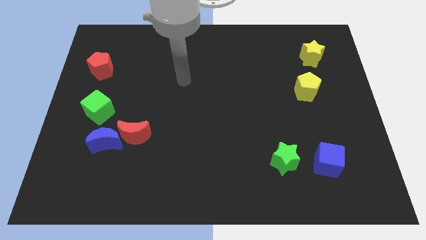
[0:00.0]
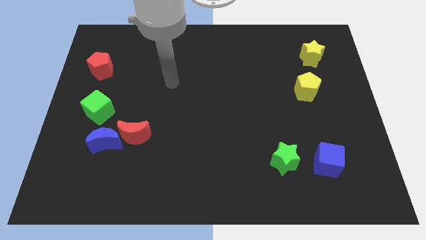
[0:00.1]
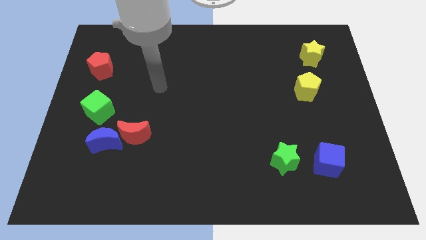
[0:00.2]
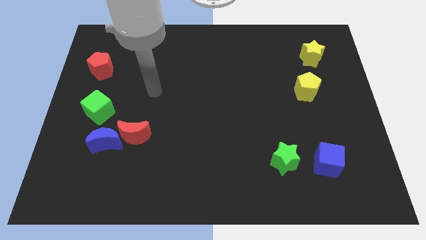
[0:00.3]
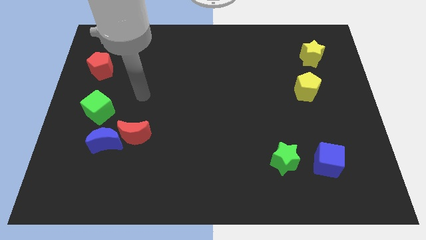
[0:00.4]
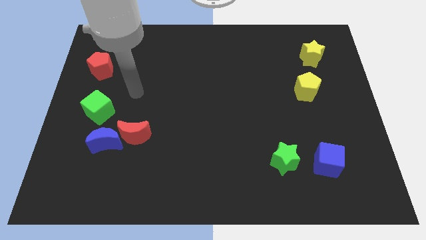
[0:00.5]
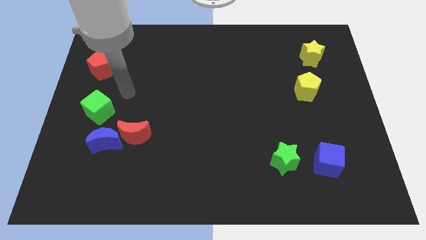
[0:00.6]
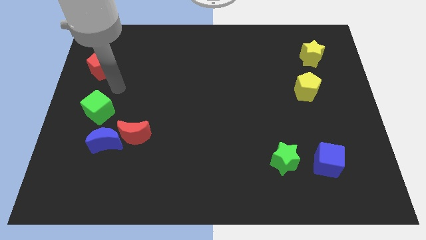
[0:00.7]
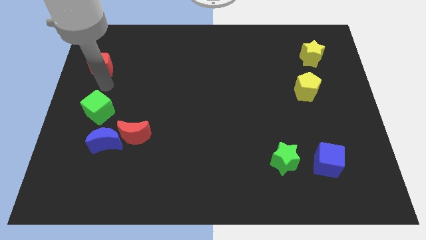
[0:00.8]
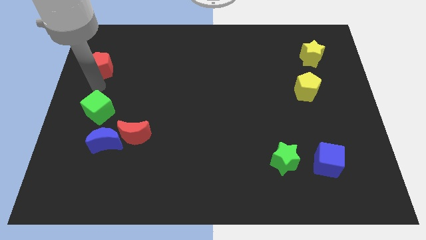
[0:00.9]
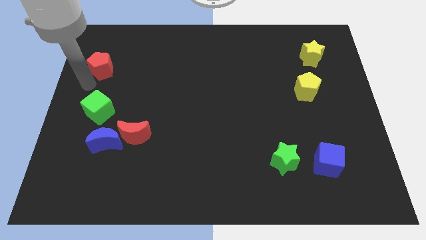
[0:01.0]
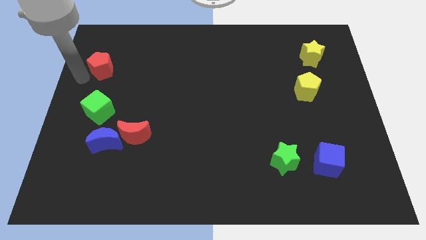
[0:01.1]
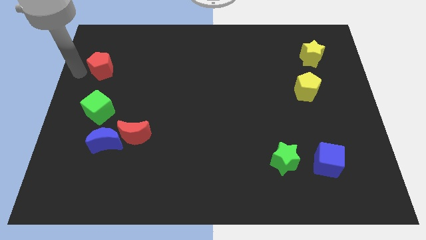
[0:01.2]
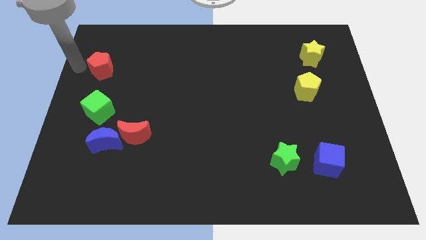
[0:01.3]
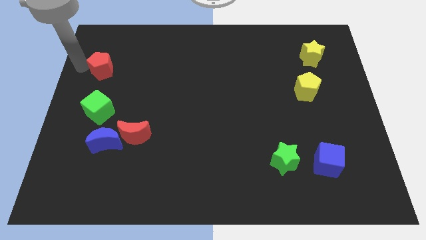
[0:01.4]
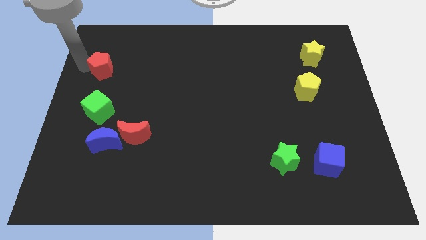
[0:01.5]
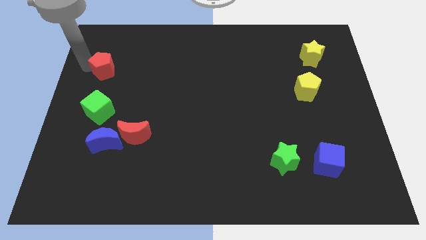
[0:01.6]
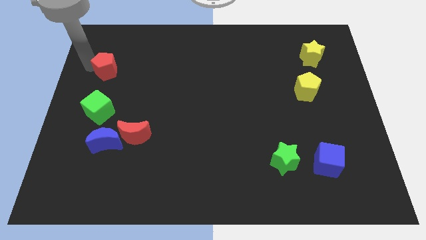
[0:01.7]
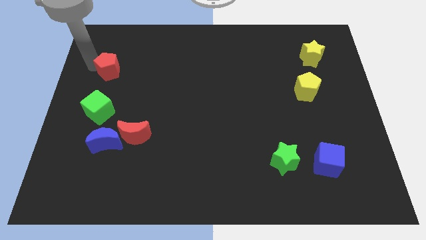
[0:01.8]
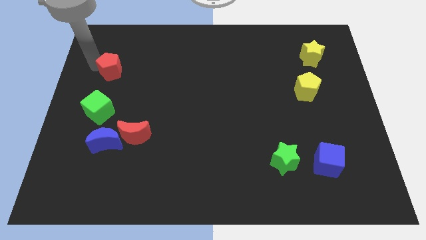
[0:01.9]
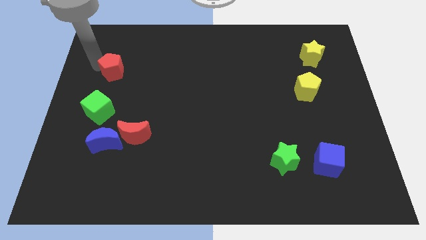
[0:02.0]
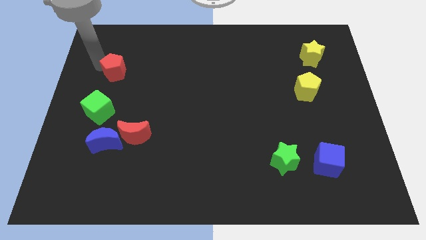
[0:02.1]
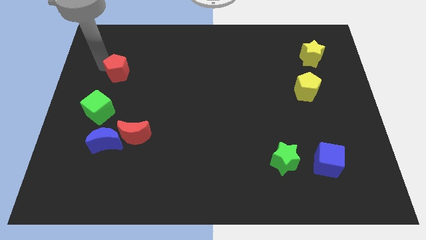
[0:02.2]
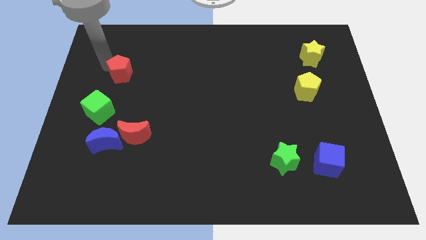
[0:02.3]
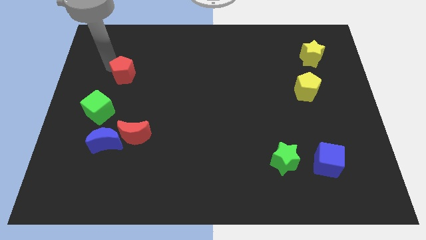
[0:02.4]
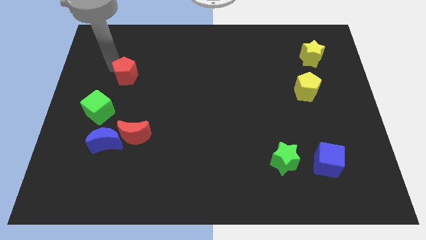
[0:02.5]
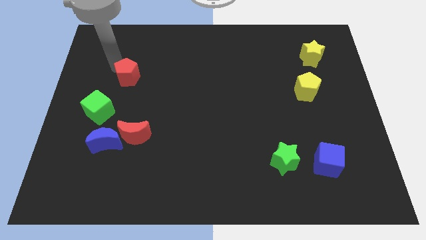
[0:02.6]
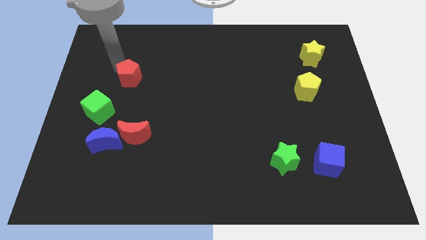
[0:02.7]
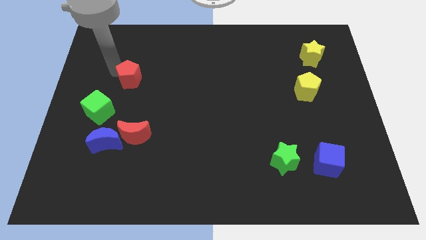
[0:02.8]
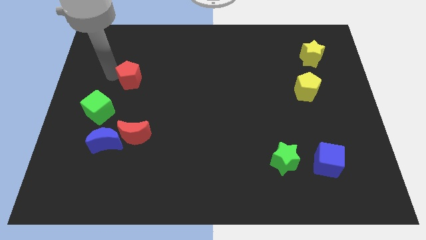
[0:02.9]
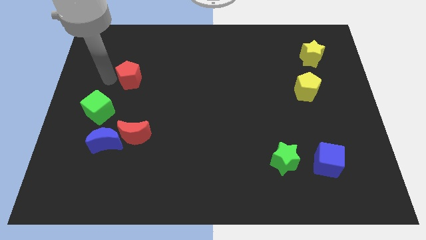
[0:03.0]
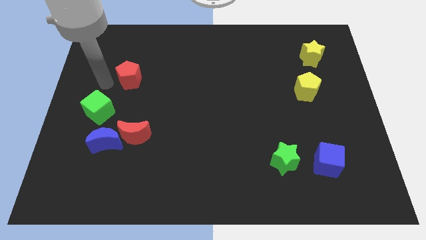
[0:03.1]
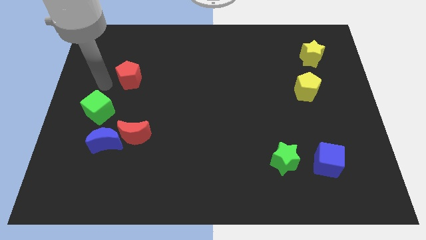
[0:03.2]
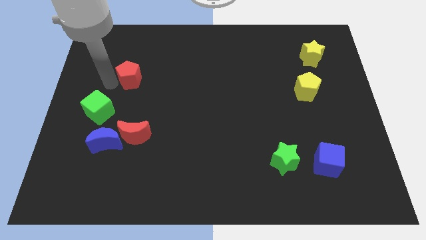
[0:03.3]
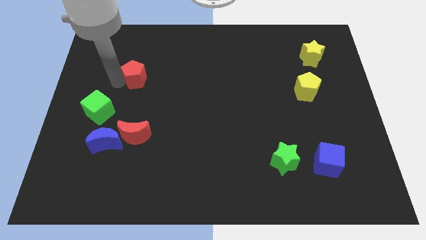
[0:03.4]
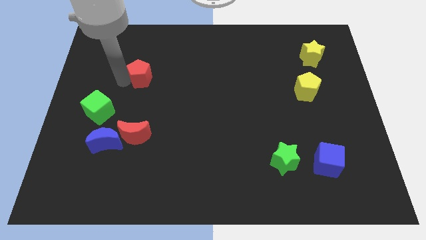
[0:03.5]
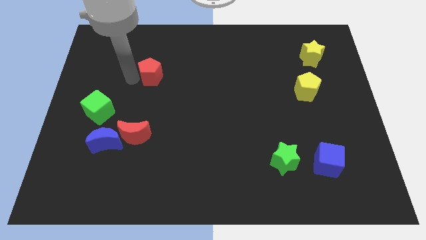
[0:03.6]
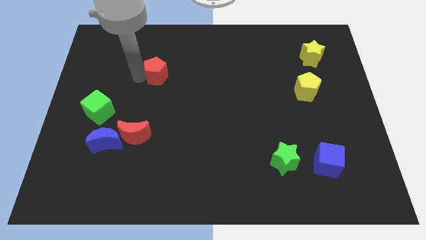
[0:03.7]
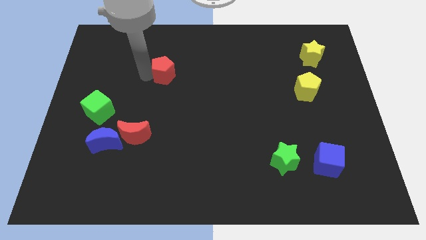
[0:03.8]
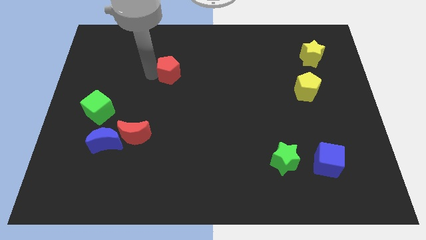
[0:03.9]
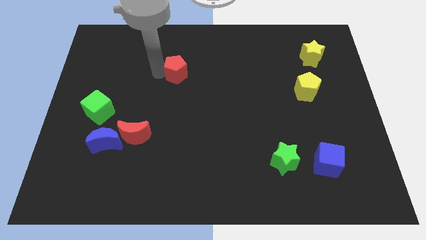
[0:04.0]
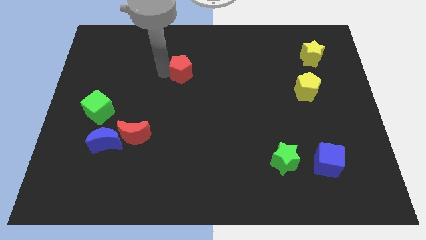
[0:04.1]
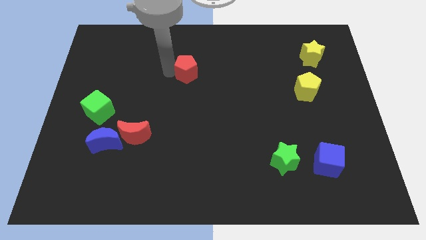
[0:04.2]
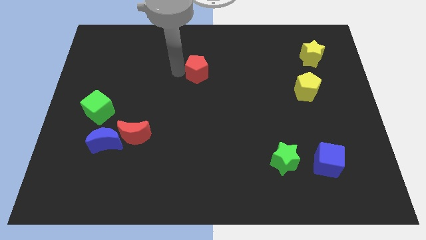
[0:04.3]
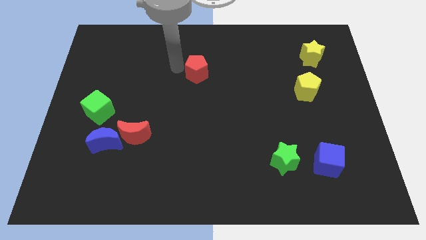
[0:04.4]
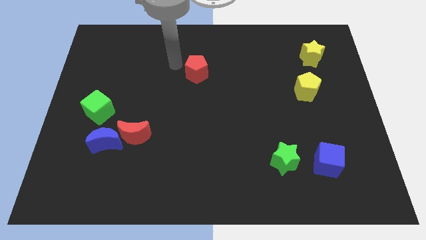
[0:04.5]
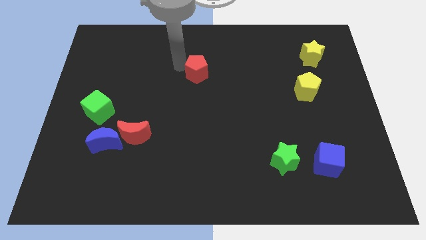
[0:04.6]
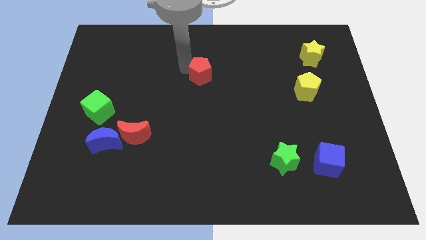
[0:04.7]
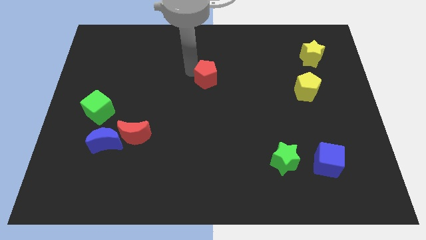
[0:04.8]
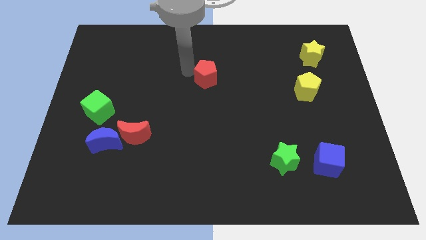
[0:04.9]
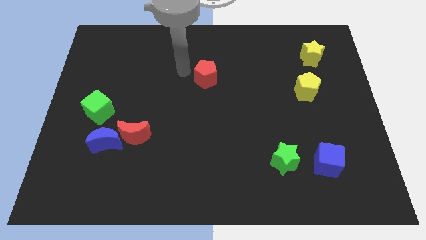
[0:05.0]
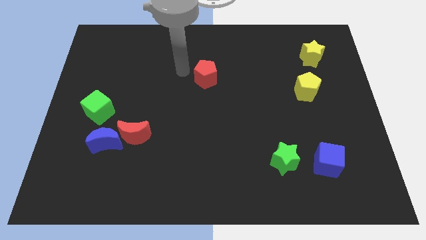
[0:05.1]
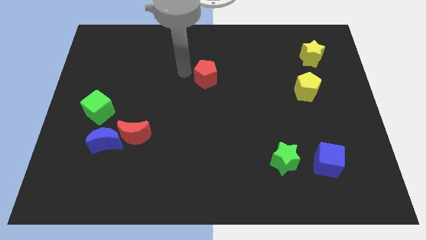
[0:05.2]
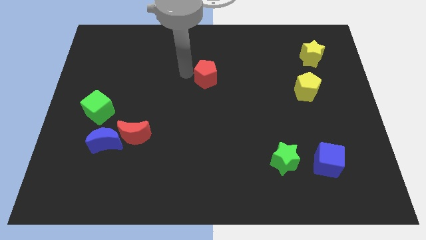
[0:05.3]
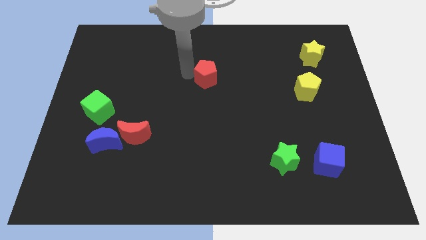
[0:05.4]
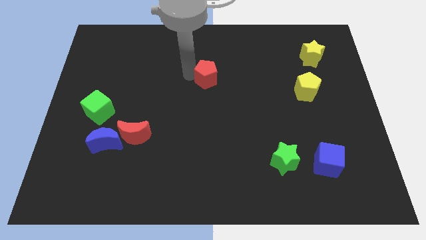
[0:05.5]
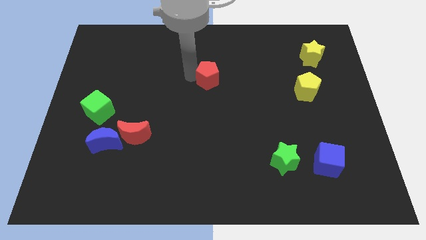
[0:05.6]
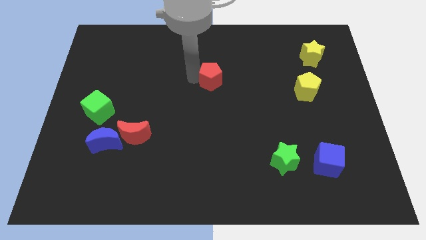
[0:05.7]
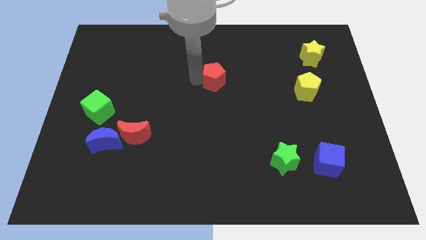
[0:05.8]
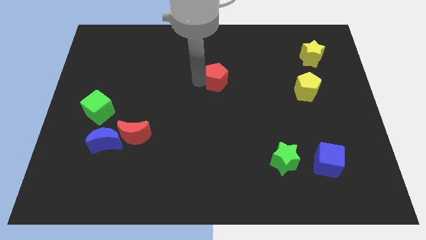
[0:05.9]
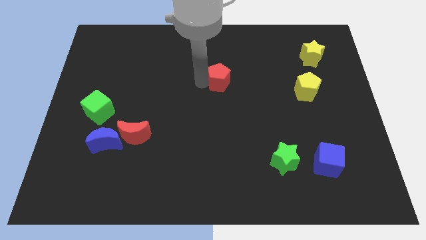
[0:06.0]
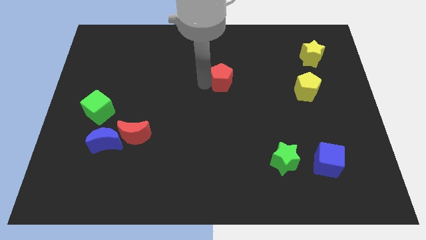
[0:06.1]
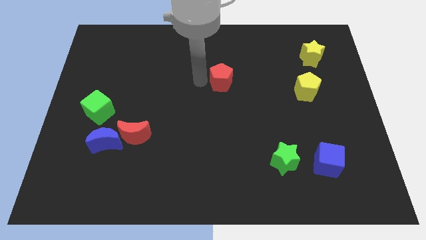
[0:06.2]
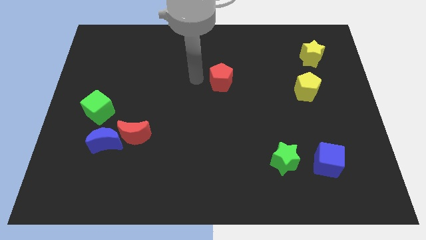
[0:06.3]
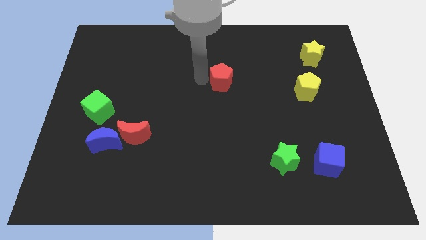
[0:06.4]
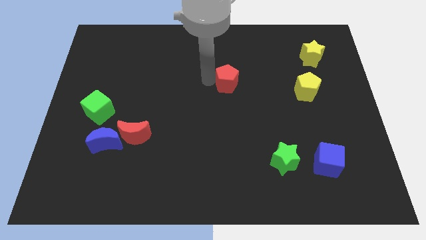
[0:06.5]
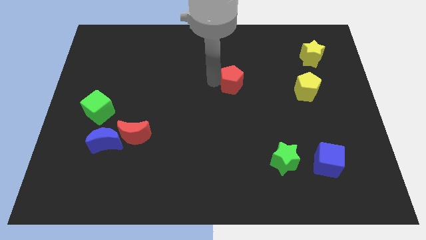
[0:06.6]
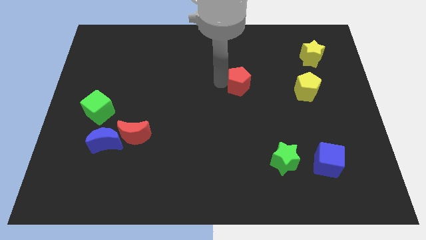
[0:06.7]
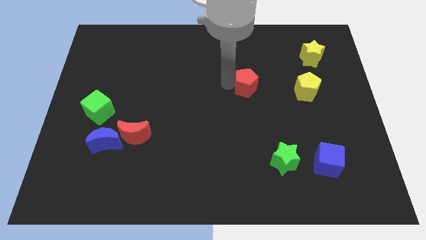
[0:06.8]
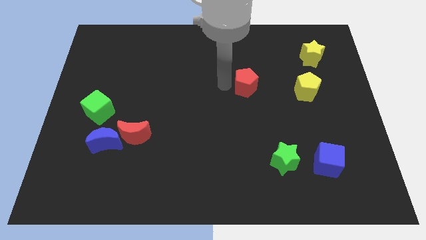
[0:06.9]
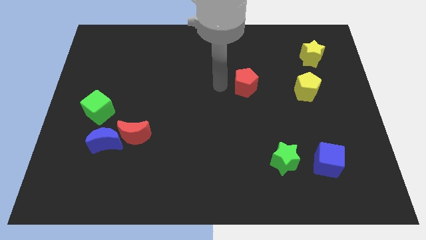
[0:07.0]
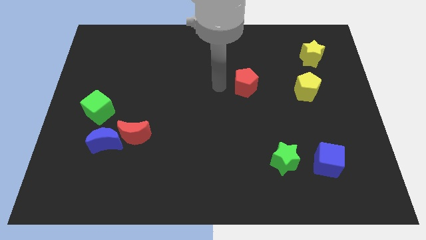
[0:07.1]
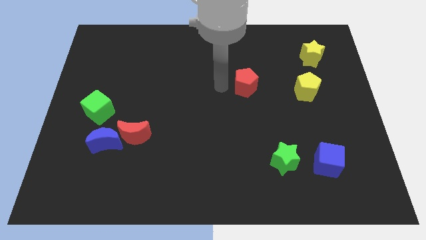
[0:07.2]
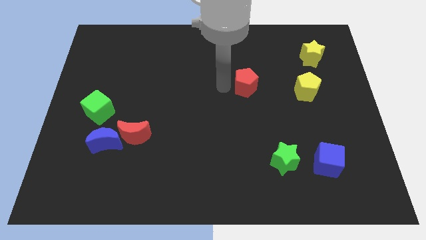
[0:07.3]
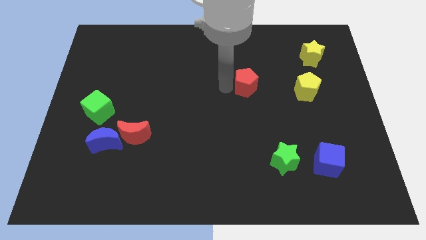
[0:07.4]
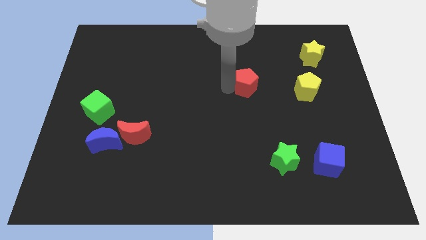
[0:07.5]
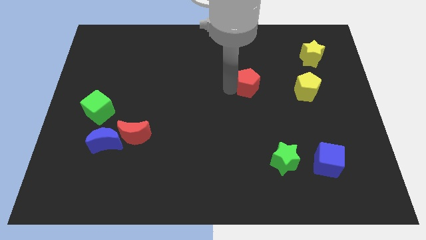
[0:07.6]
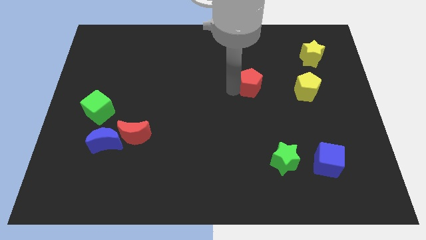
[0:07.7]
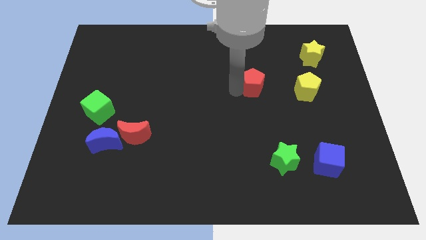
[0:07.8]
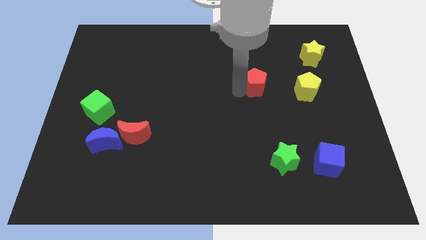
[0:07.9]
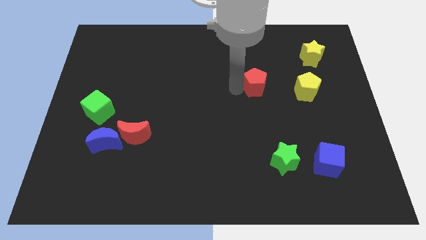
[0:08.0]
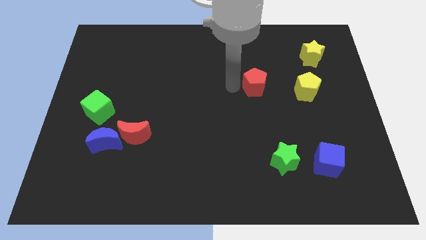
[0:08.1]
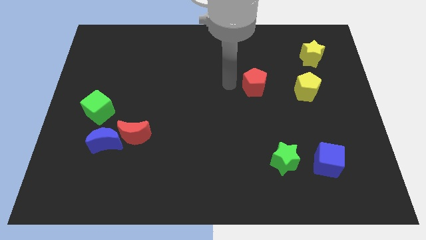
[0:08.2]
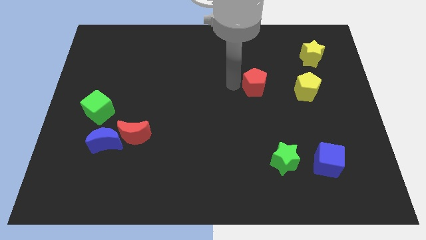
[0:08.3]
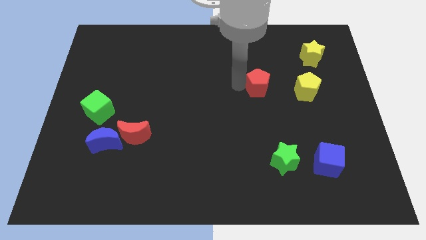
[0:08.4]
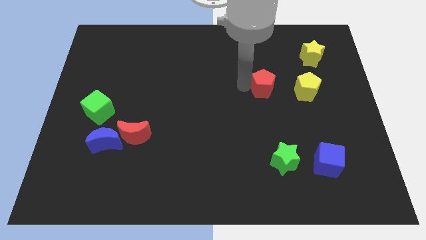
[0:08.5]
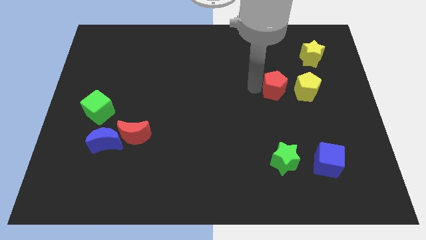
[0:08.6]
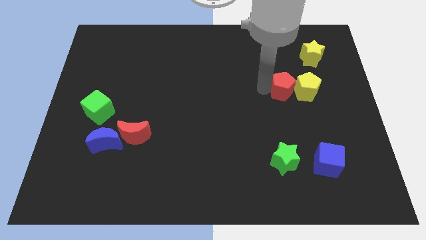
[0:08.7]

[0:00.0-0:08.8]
push the red pentagon towards the yellow pentagon
